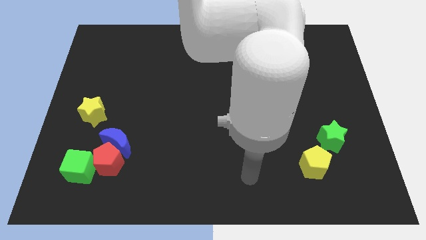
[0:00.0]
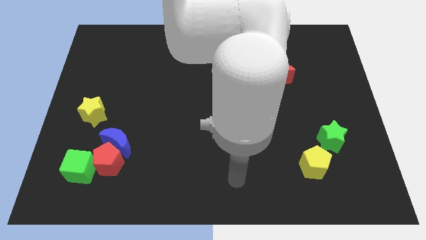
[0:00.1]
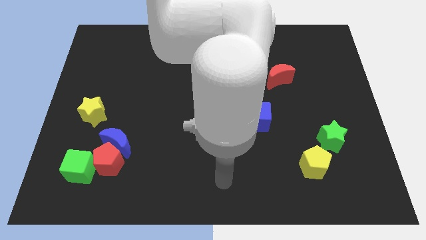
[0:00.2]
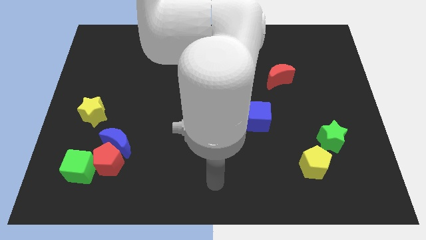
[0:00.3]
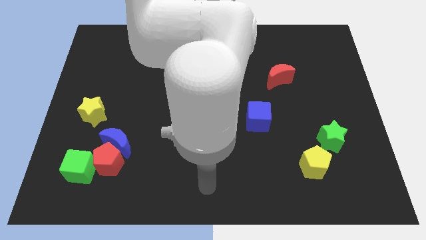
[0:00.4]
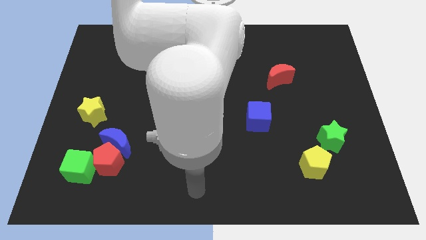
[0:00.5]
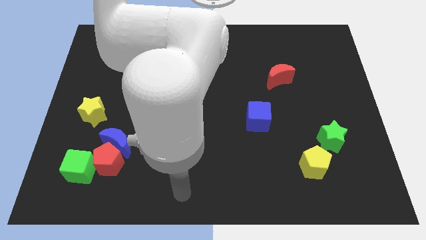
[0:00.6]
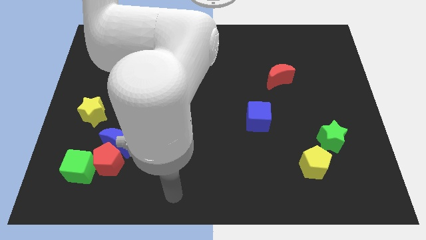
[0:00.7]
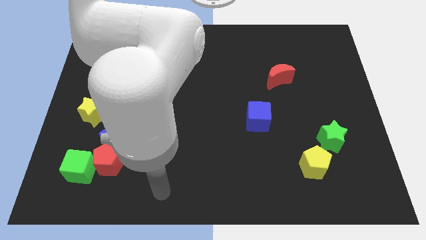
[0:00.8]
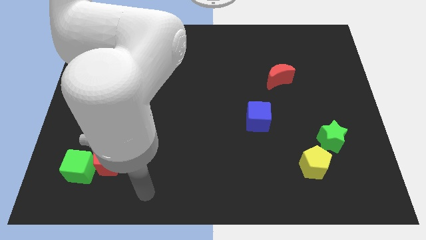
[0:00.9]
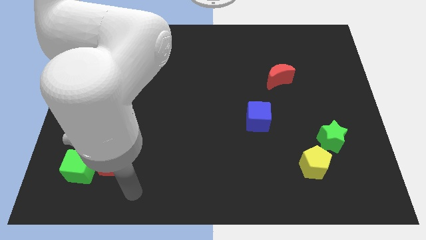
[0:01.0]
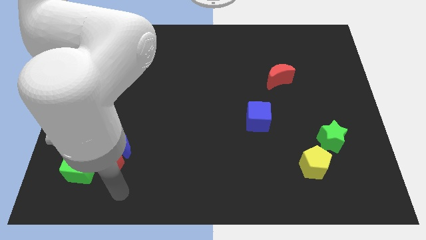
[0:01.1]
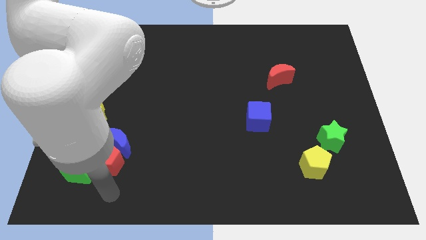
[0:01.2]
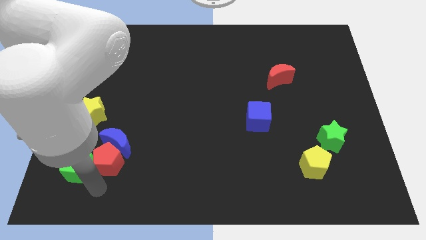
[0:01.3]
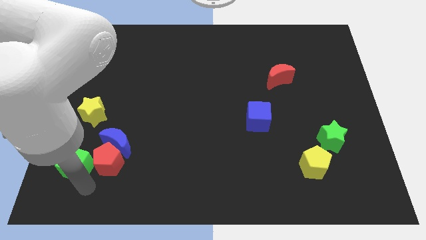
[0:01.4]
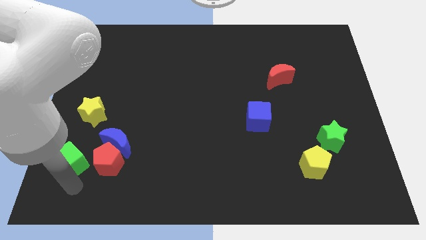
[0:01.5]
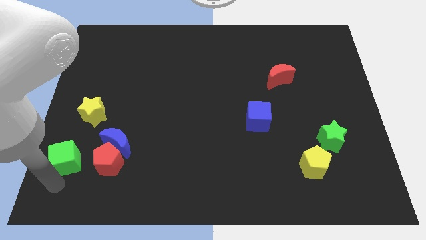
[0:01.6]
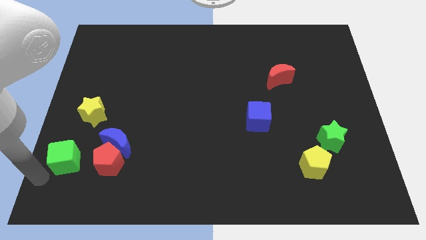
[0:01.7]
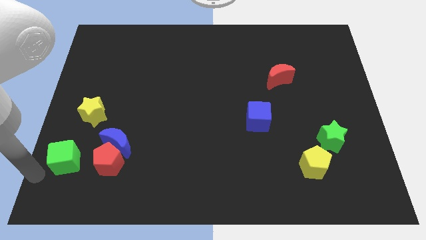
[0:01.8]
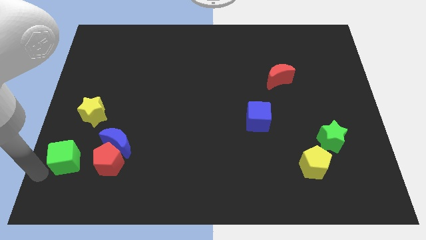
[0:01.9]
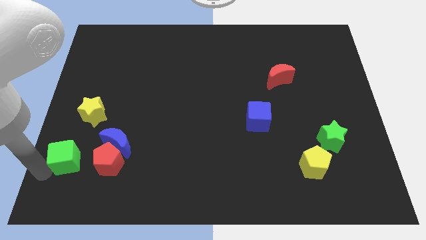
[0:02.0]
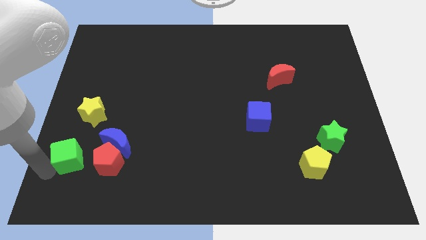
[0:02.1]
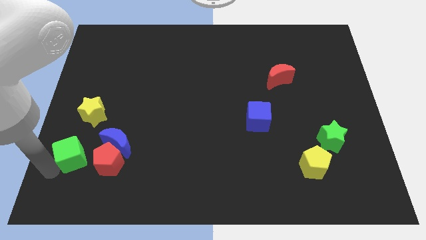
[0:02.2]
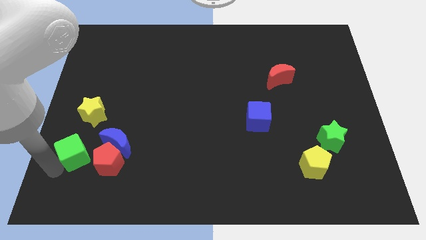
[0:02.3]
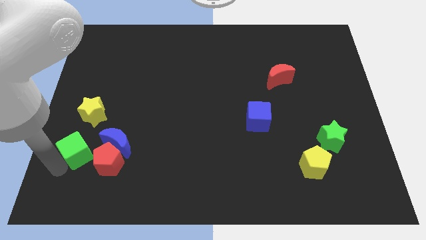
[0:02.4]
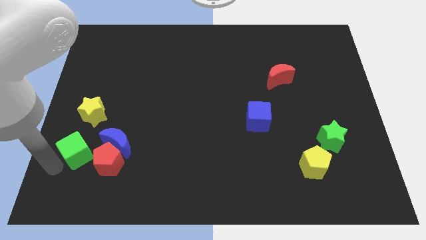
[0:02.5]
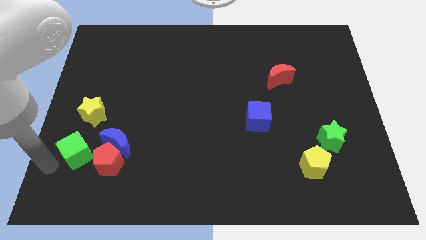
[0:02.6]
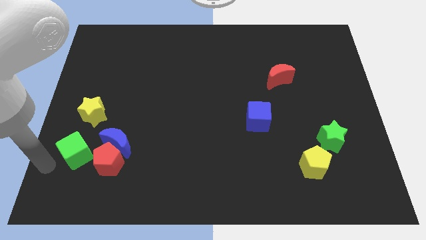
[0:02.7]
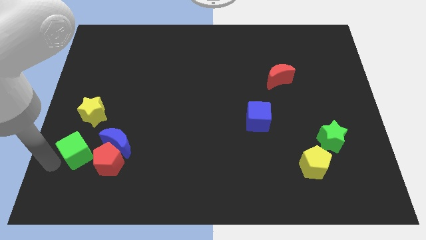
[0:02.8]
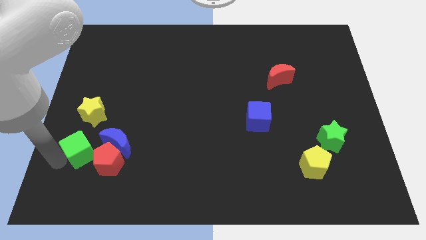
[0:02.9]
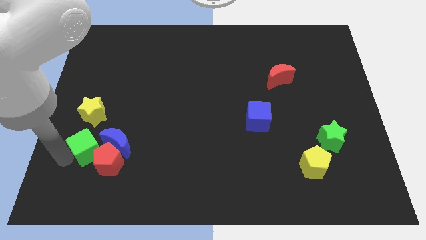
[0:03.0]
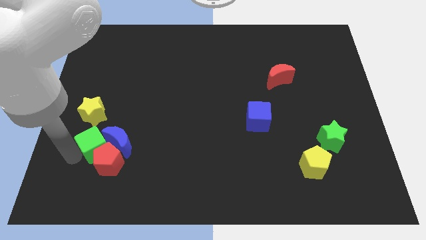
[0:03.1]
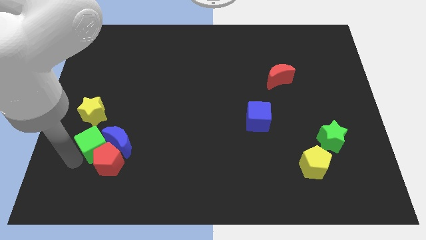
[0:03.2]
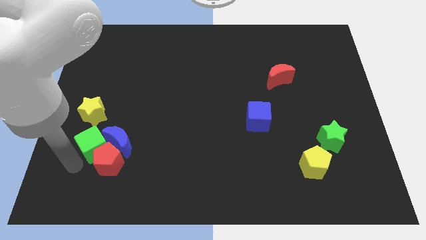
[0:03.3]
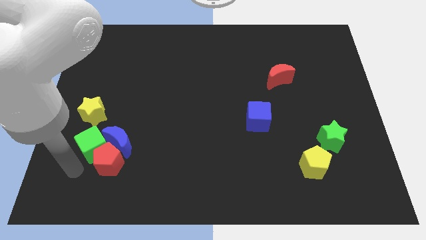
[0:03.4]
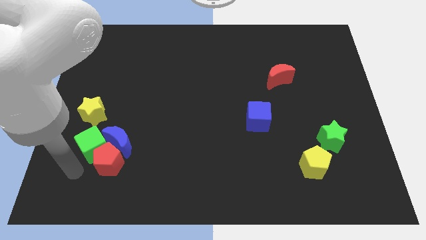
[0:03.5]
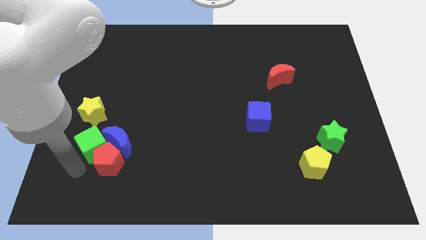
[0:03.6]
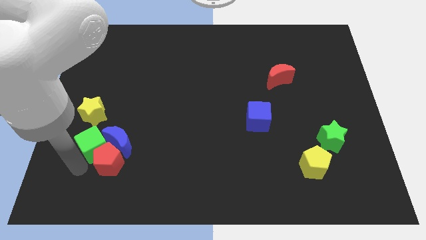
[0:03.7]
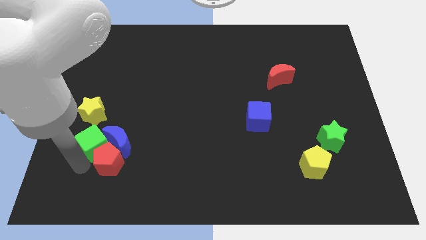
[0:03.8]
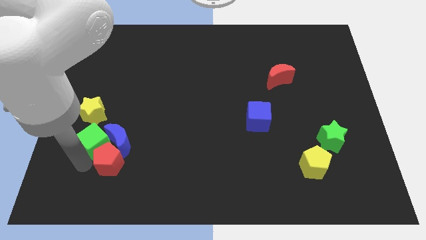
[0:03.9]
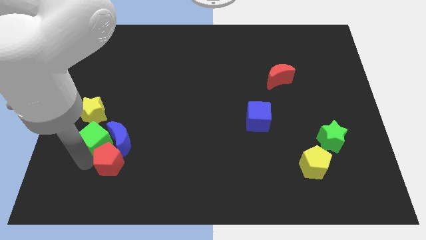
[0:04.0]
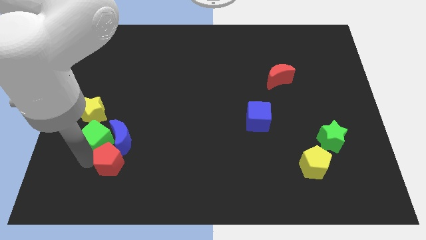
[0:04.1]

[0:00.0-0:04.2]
push the green cube a little bit upwards

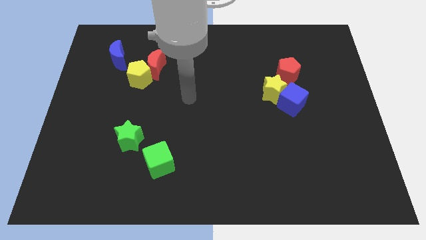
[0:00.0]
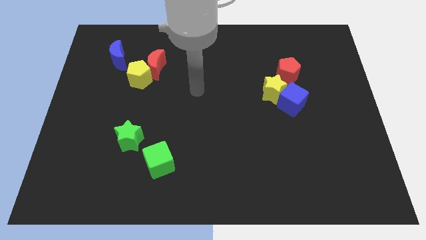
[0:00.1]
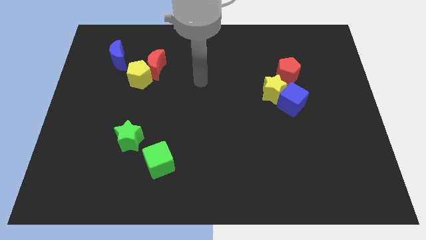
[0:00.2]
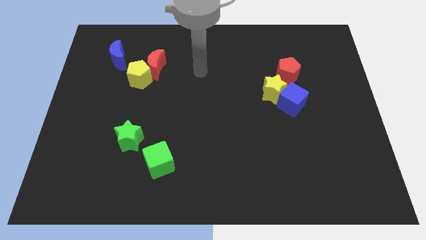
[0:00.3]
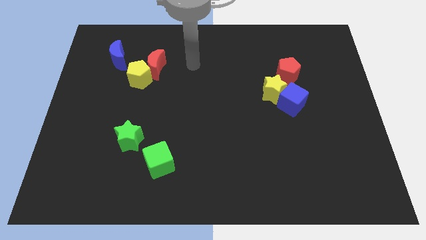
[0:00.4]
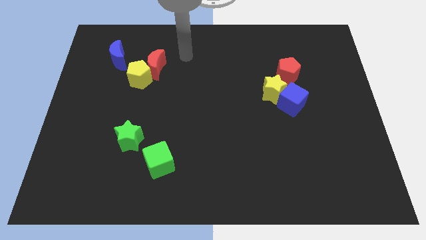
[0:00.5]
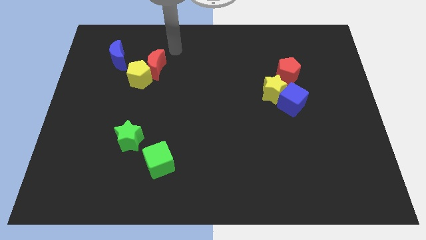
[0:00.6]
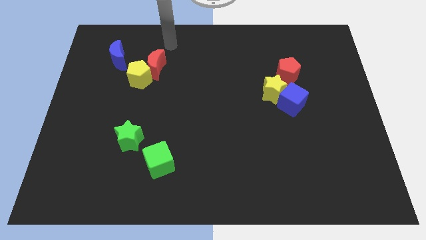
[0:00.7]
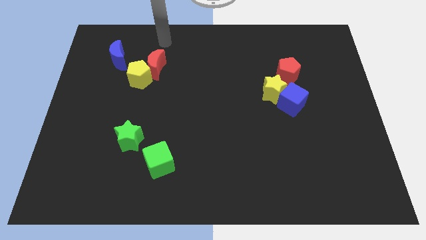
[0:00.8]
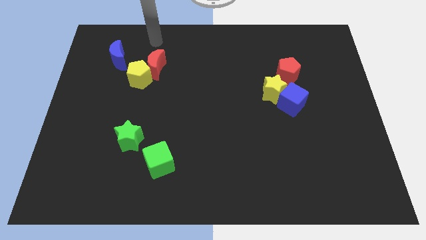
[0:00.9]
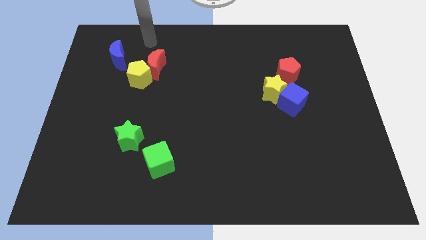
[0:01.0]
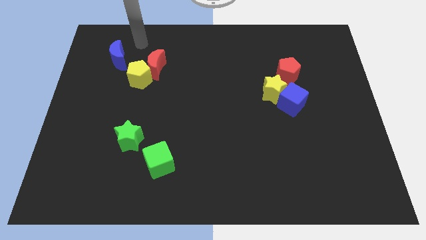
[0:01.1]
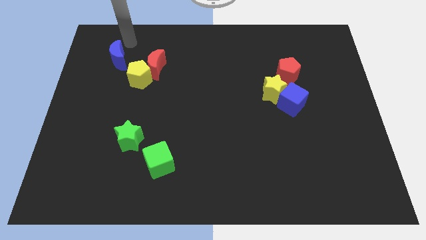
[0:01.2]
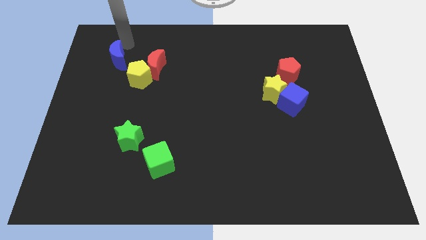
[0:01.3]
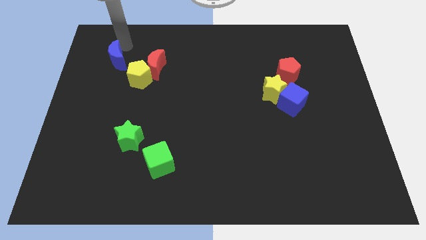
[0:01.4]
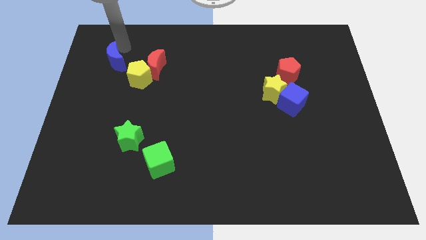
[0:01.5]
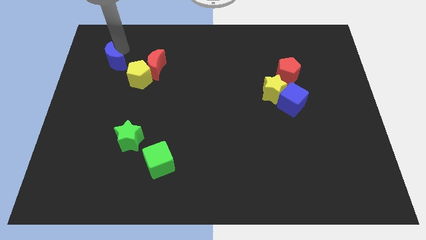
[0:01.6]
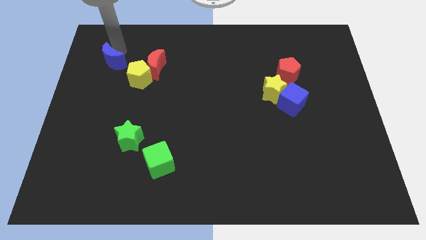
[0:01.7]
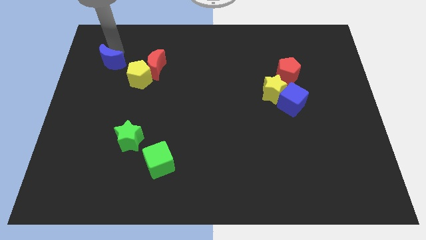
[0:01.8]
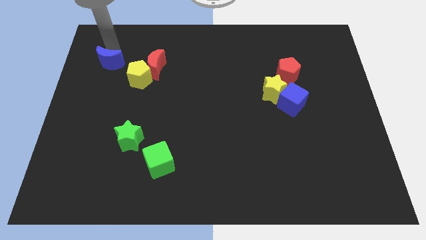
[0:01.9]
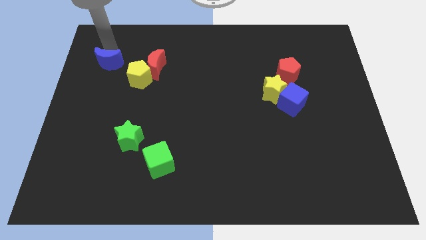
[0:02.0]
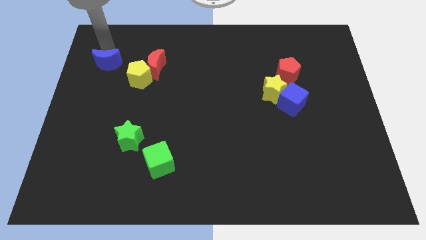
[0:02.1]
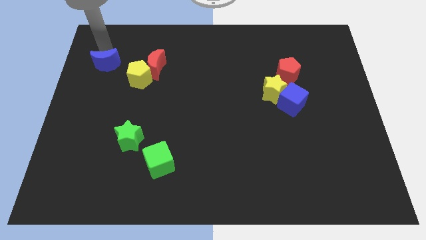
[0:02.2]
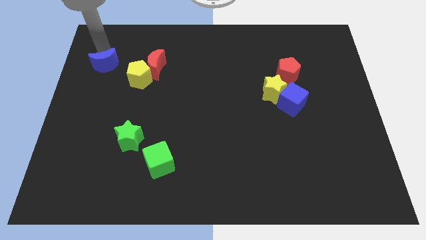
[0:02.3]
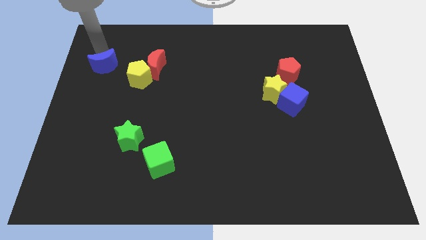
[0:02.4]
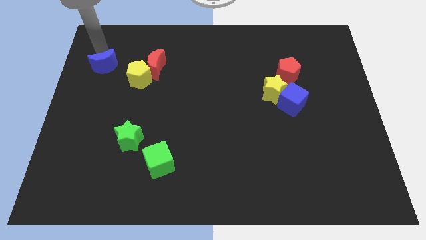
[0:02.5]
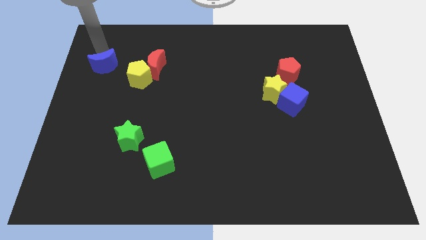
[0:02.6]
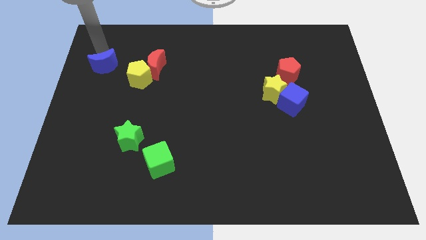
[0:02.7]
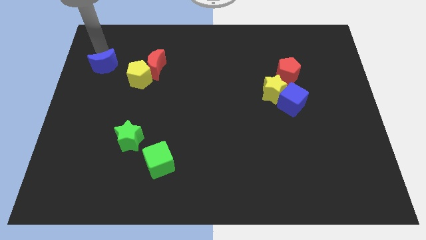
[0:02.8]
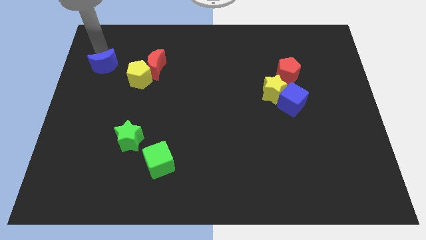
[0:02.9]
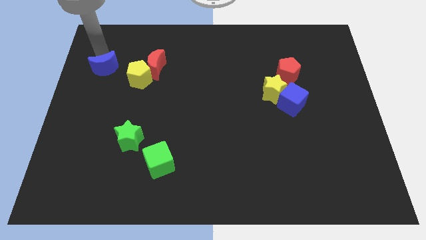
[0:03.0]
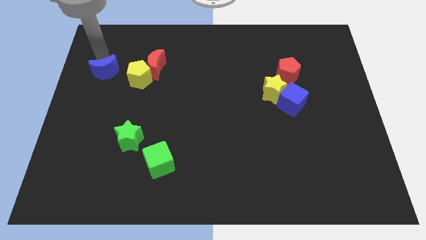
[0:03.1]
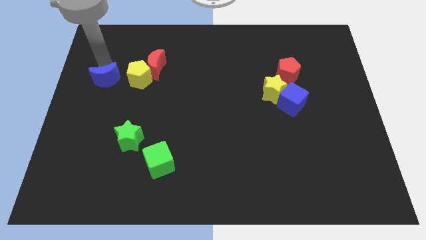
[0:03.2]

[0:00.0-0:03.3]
move the blue moon a bit downwards

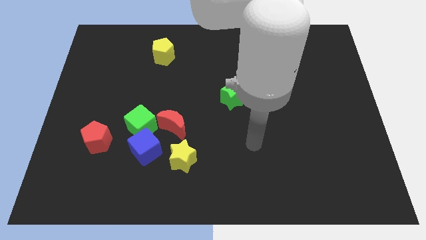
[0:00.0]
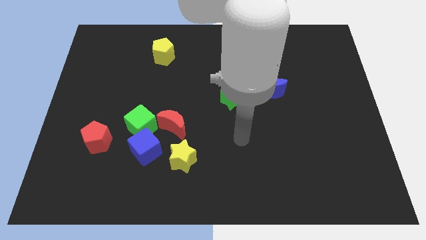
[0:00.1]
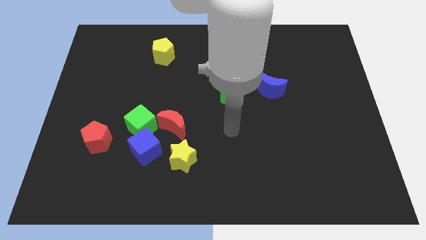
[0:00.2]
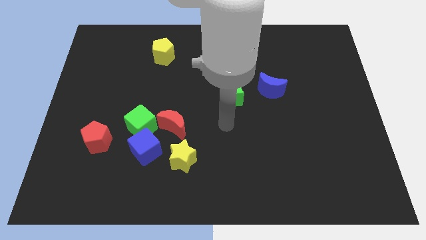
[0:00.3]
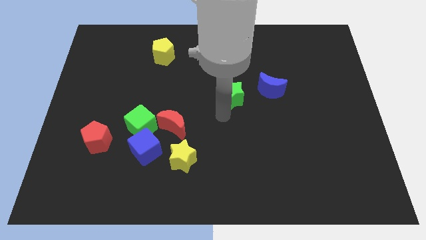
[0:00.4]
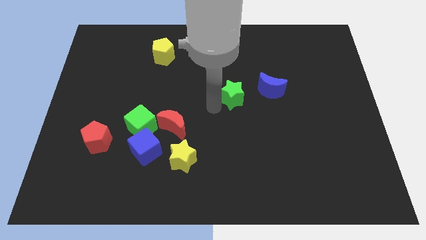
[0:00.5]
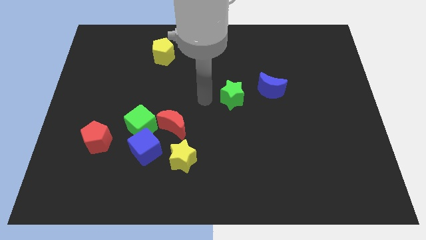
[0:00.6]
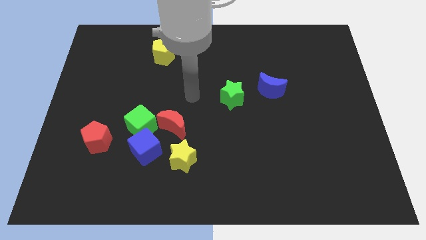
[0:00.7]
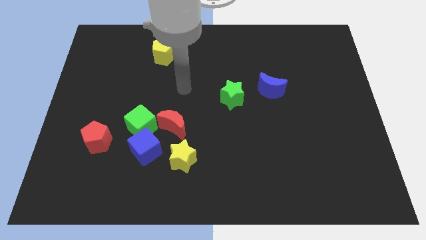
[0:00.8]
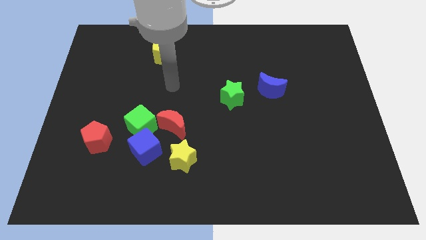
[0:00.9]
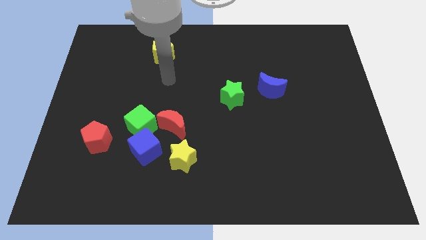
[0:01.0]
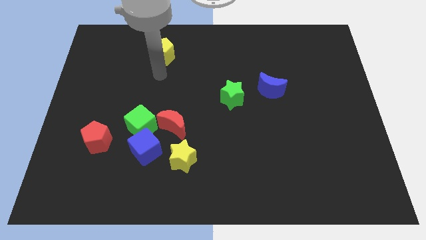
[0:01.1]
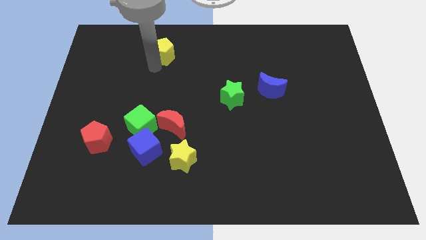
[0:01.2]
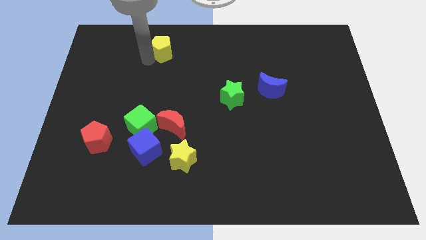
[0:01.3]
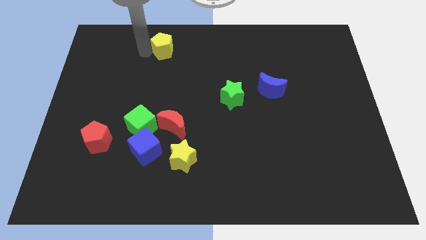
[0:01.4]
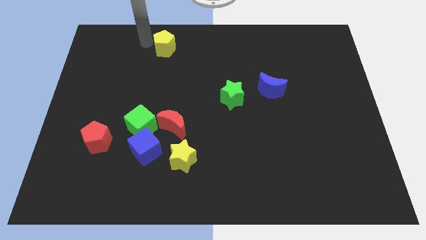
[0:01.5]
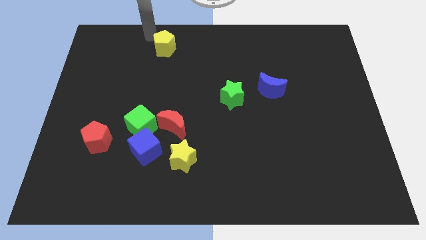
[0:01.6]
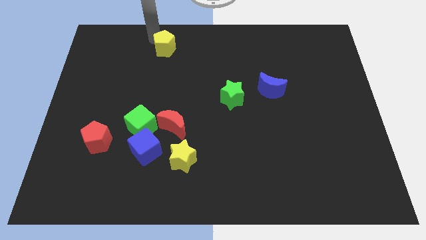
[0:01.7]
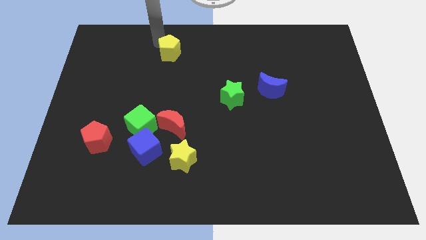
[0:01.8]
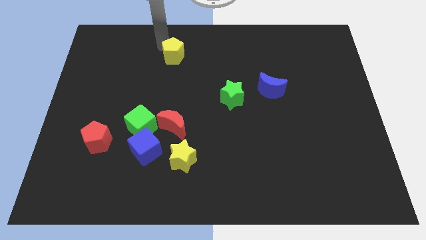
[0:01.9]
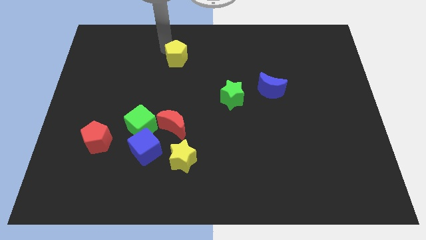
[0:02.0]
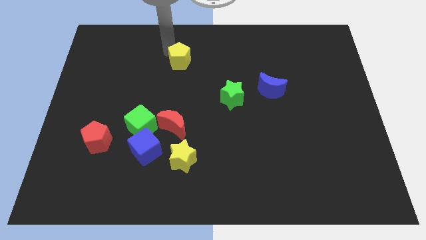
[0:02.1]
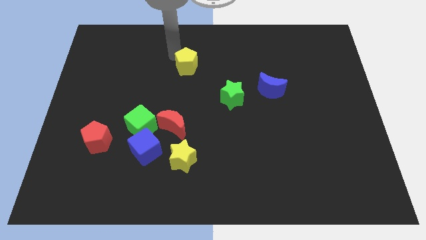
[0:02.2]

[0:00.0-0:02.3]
move the yellow pentagon downwards and to the right a bit
